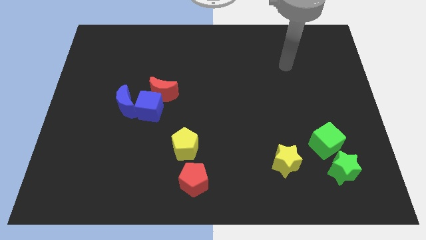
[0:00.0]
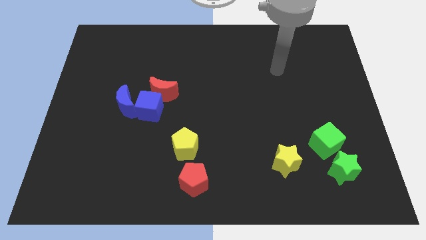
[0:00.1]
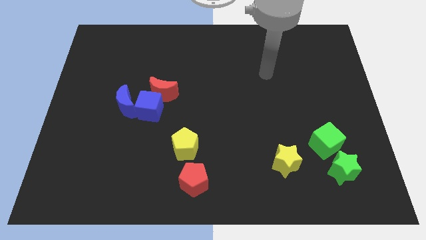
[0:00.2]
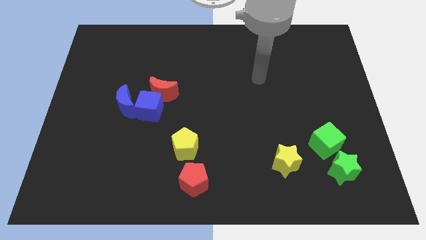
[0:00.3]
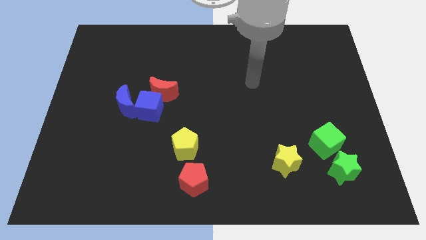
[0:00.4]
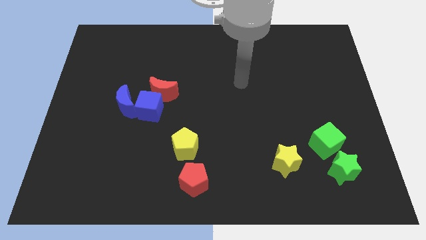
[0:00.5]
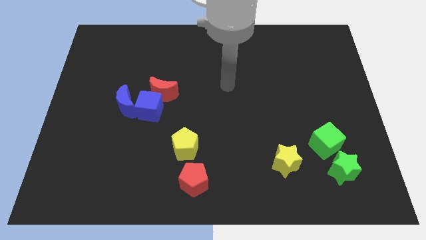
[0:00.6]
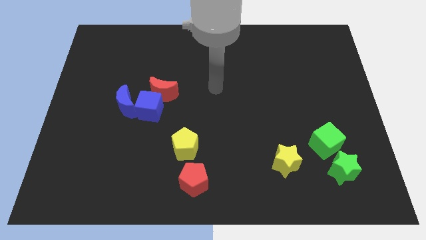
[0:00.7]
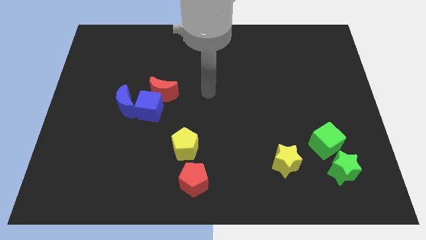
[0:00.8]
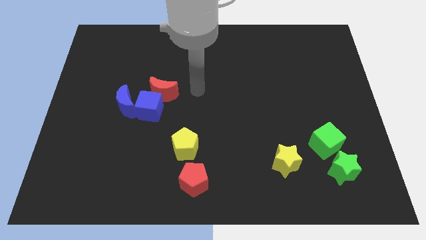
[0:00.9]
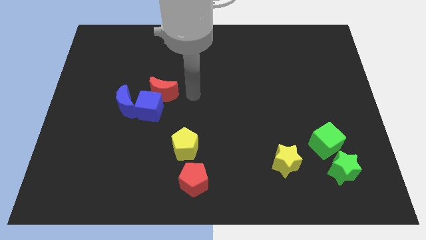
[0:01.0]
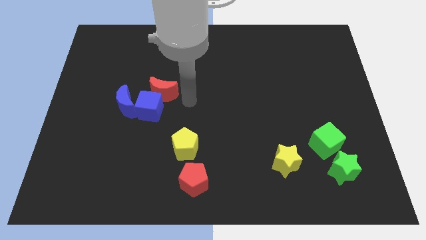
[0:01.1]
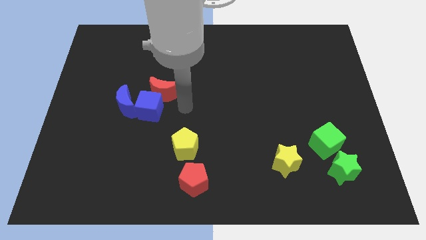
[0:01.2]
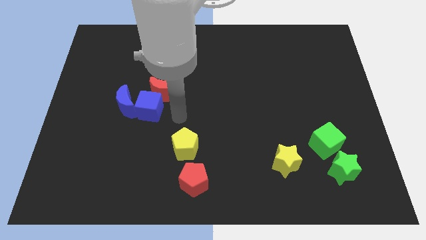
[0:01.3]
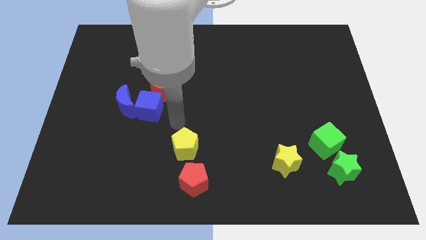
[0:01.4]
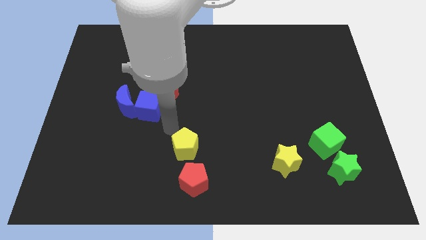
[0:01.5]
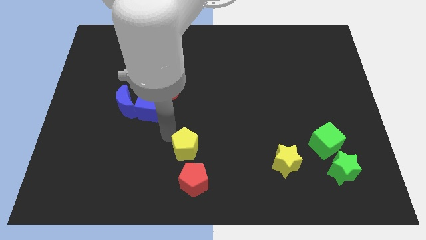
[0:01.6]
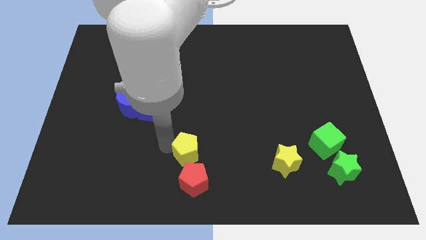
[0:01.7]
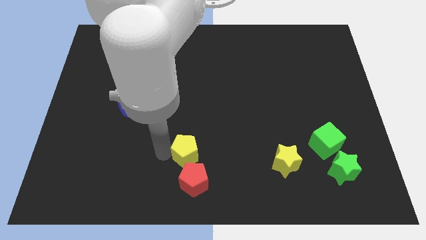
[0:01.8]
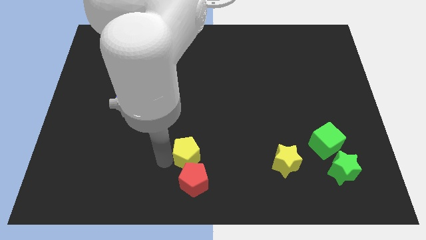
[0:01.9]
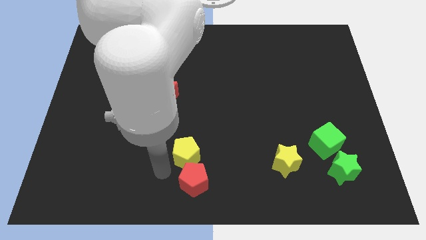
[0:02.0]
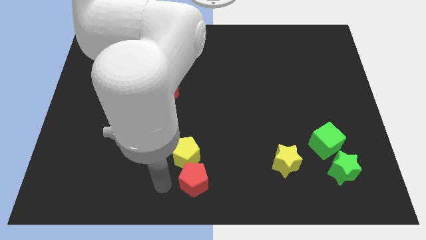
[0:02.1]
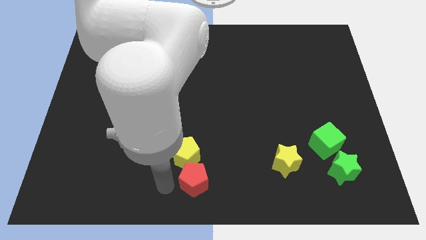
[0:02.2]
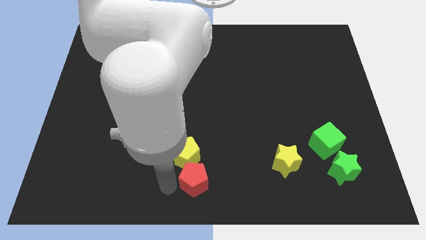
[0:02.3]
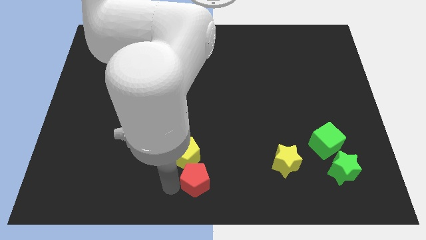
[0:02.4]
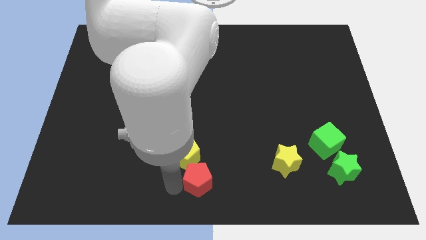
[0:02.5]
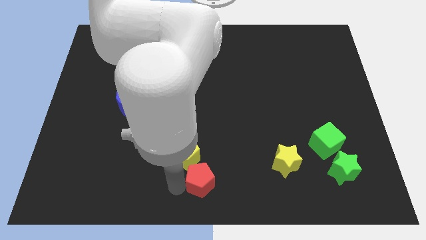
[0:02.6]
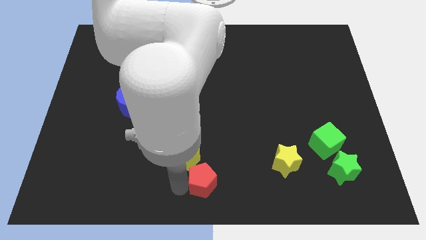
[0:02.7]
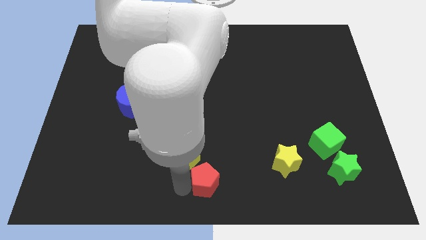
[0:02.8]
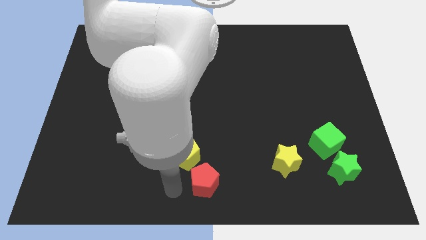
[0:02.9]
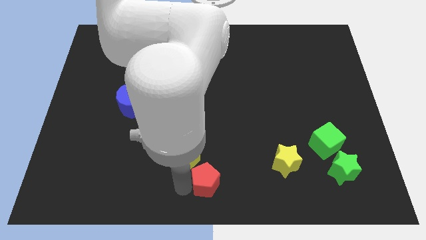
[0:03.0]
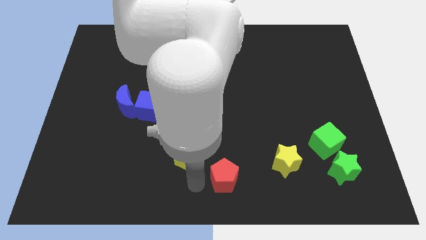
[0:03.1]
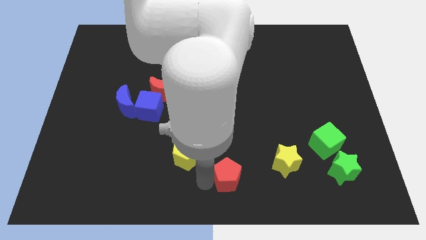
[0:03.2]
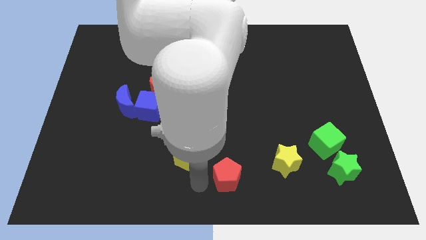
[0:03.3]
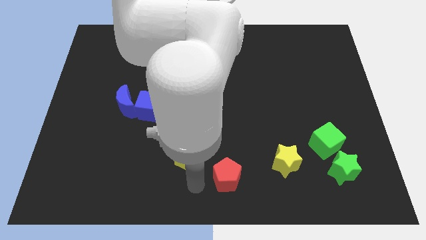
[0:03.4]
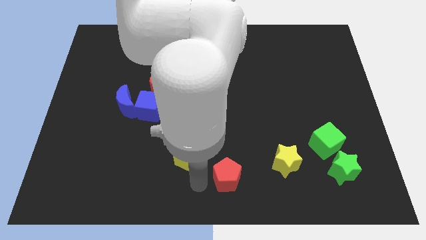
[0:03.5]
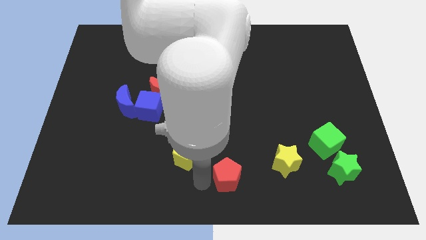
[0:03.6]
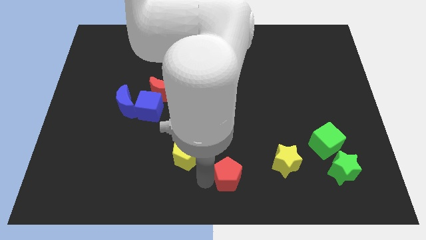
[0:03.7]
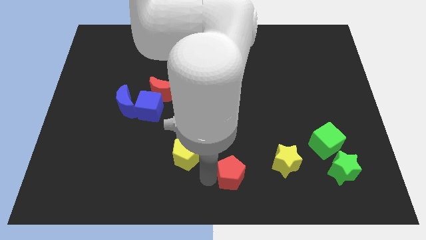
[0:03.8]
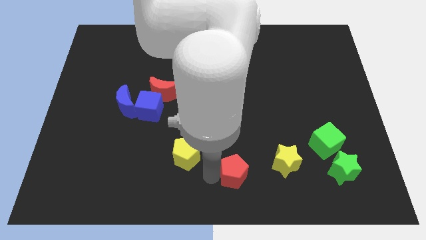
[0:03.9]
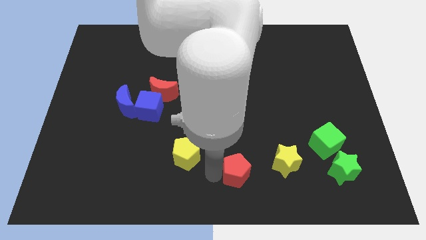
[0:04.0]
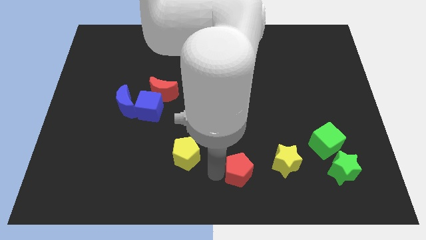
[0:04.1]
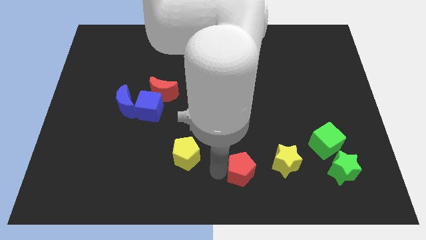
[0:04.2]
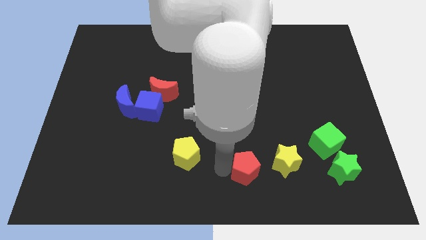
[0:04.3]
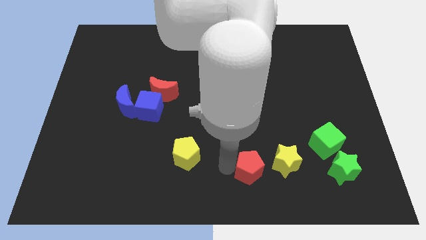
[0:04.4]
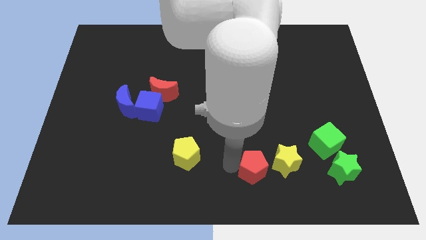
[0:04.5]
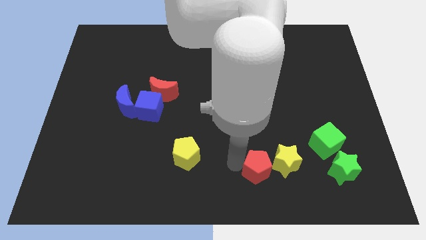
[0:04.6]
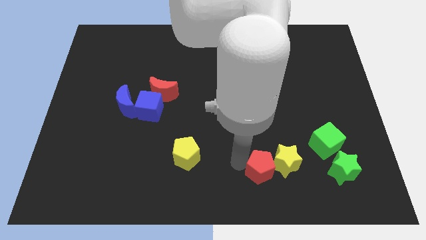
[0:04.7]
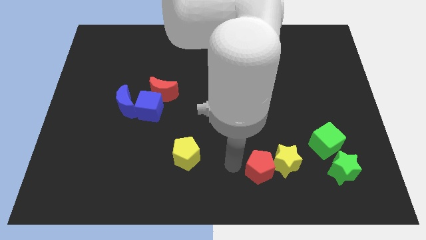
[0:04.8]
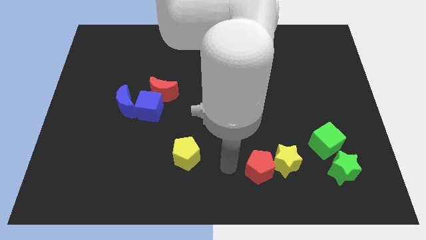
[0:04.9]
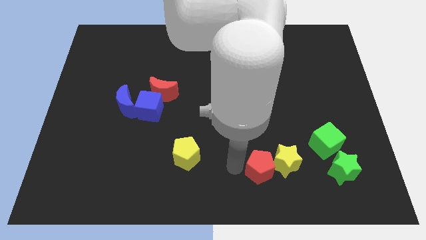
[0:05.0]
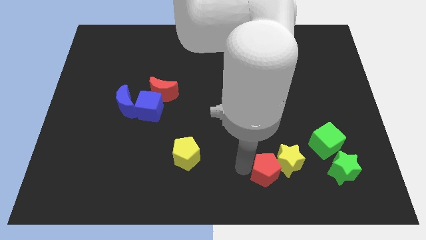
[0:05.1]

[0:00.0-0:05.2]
move the red pentagon to the left side of the green star

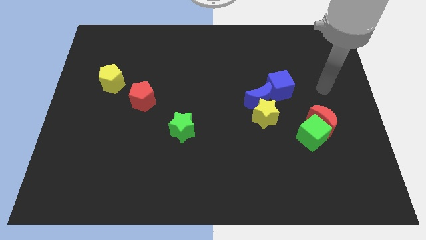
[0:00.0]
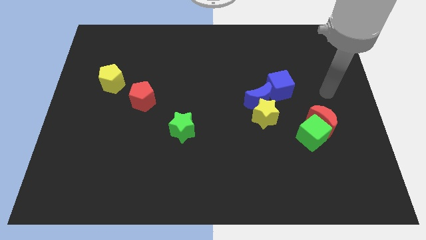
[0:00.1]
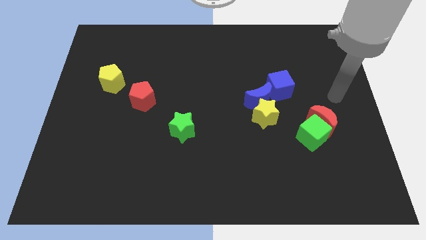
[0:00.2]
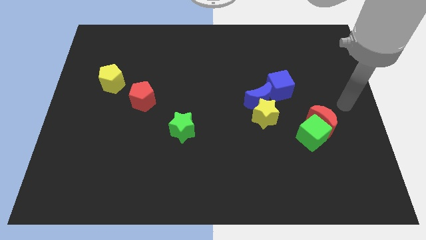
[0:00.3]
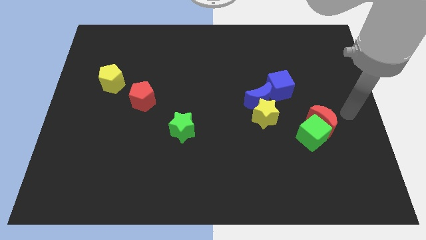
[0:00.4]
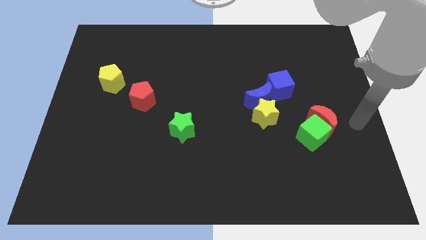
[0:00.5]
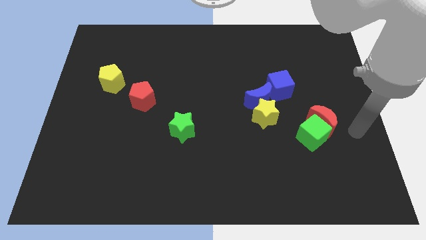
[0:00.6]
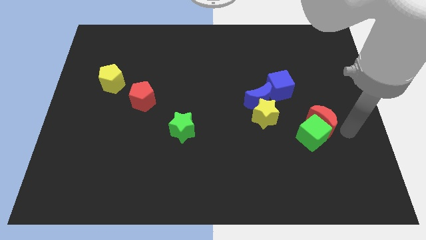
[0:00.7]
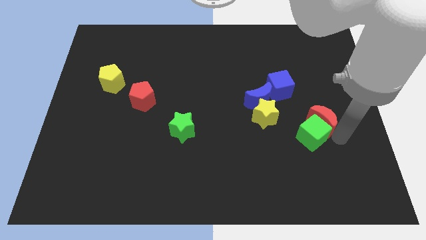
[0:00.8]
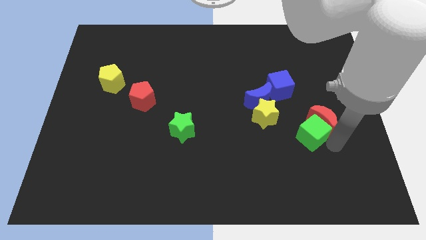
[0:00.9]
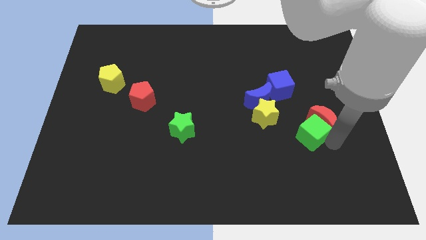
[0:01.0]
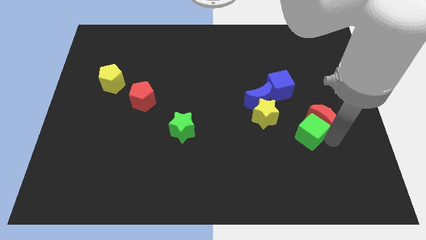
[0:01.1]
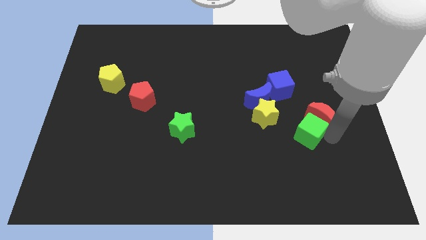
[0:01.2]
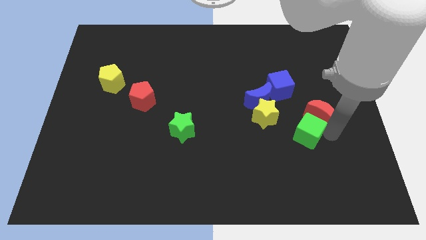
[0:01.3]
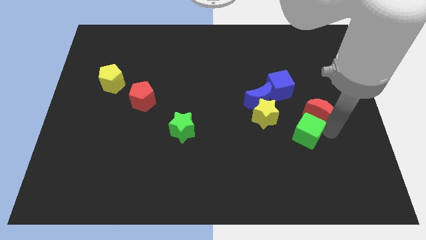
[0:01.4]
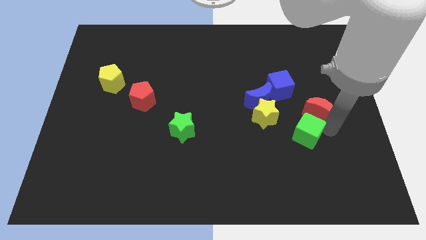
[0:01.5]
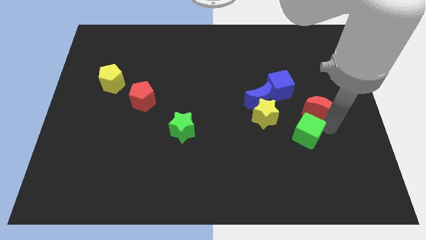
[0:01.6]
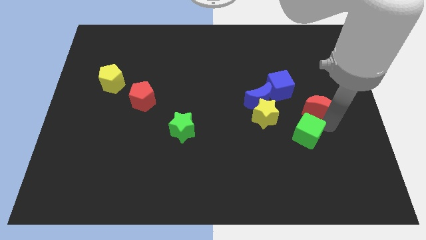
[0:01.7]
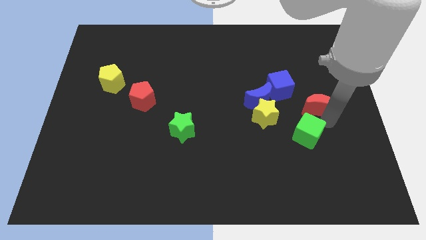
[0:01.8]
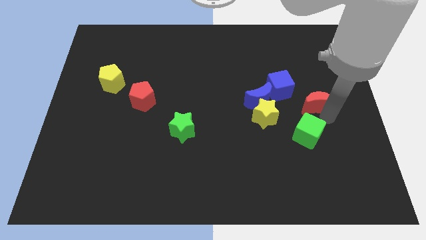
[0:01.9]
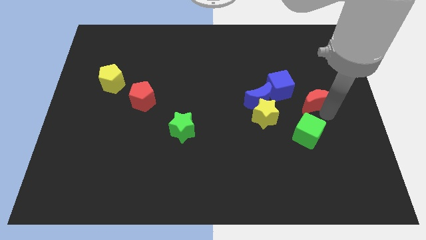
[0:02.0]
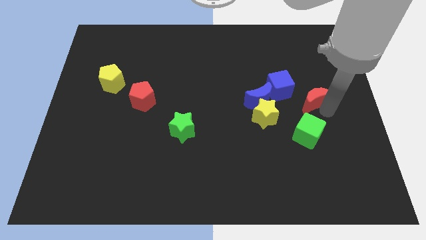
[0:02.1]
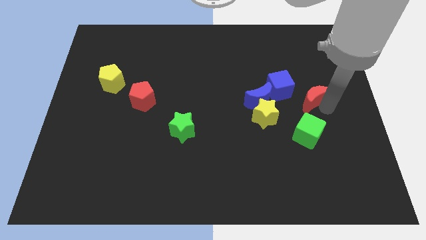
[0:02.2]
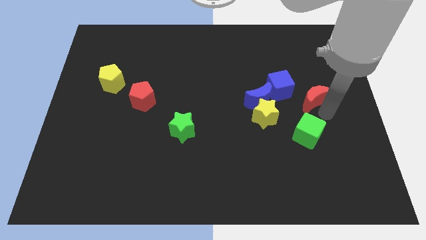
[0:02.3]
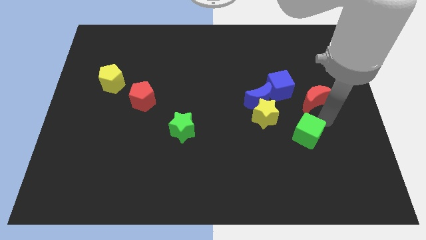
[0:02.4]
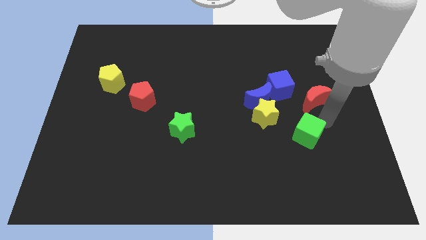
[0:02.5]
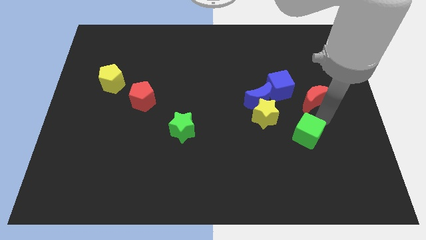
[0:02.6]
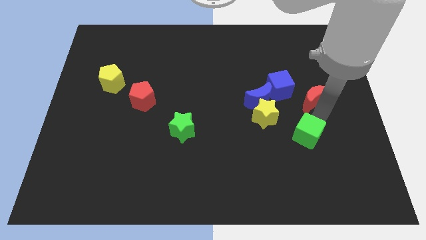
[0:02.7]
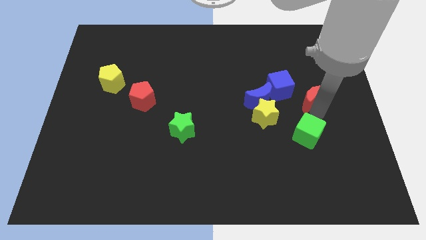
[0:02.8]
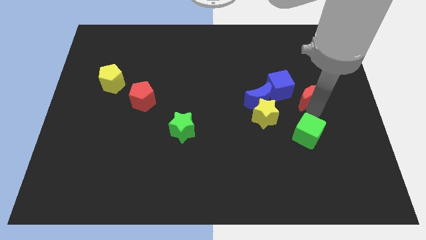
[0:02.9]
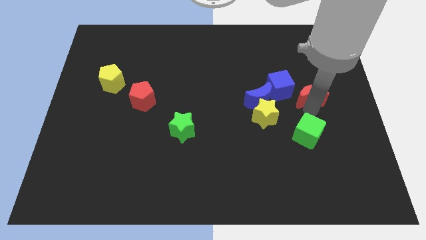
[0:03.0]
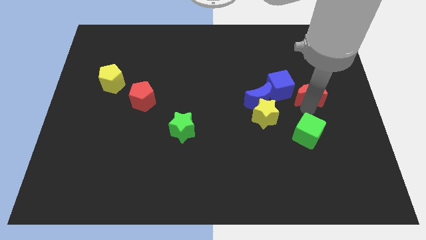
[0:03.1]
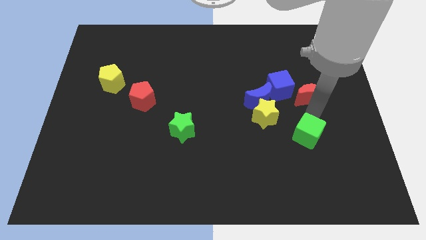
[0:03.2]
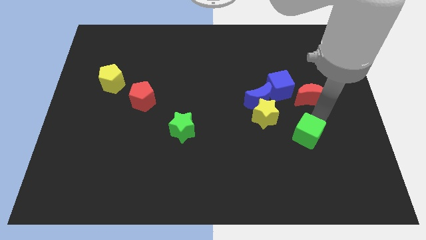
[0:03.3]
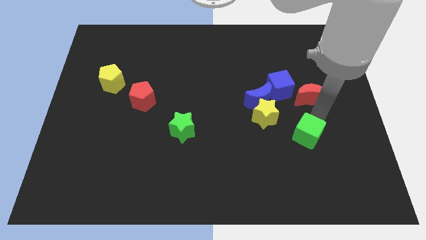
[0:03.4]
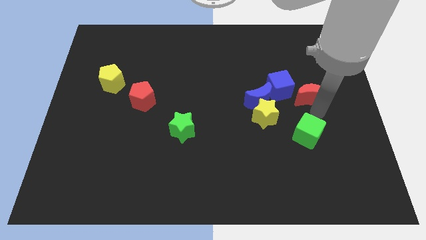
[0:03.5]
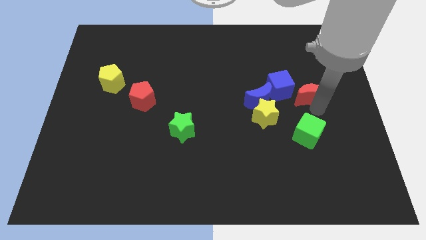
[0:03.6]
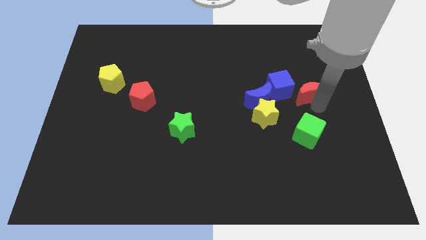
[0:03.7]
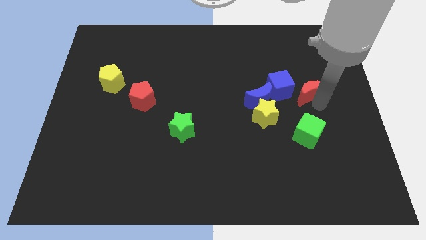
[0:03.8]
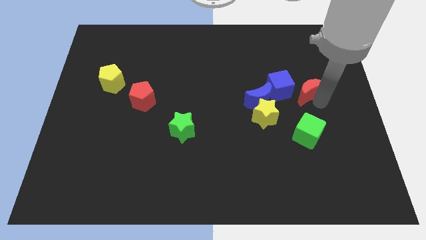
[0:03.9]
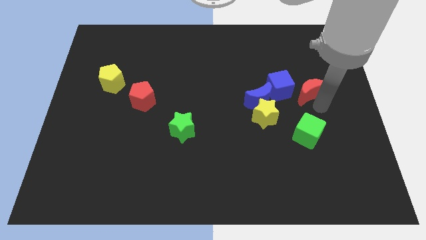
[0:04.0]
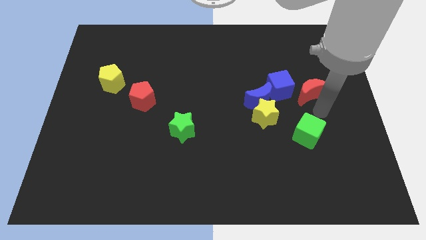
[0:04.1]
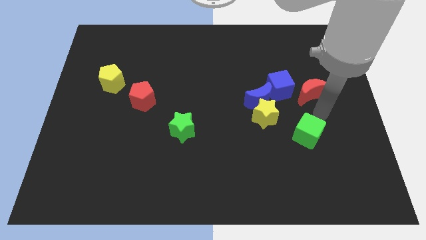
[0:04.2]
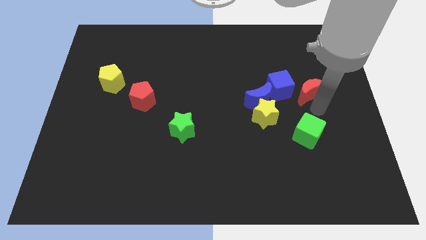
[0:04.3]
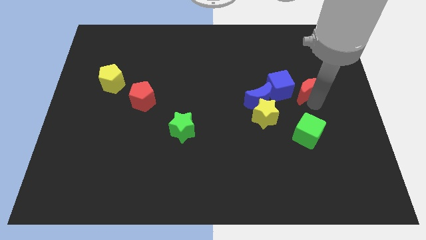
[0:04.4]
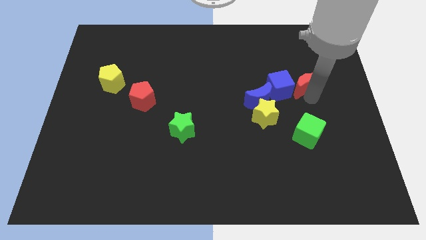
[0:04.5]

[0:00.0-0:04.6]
push the red moon to the top right of the blue cube
